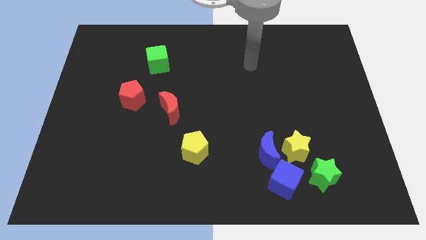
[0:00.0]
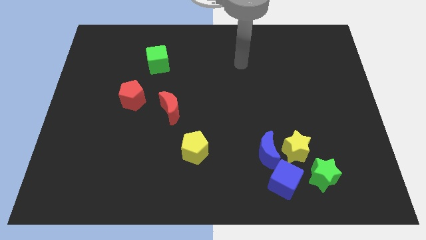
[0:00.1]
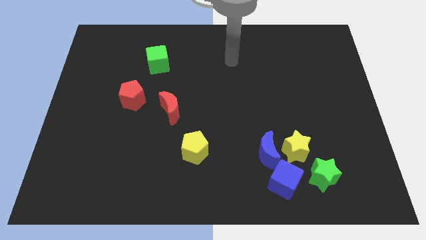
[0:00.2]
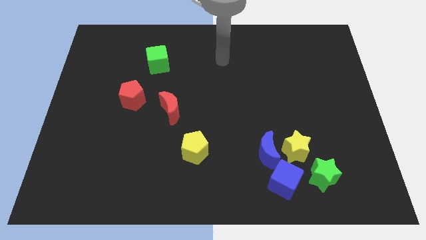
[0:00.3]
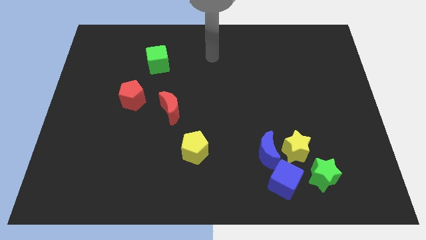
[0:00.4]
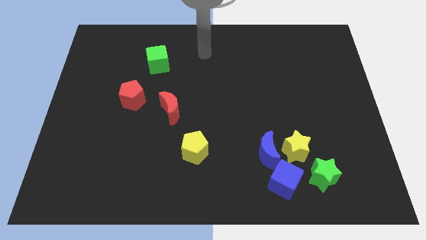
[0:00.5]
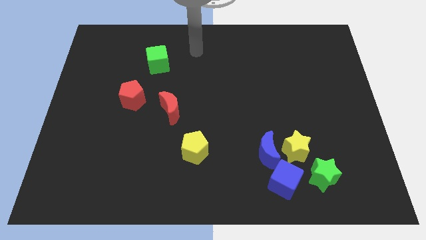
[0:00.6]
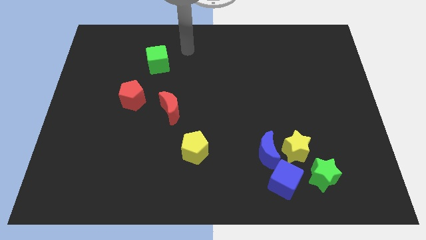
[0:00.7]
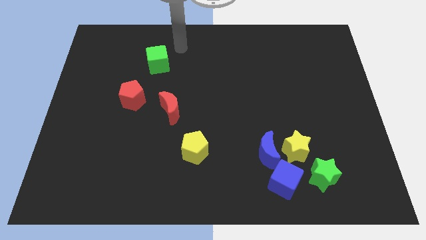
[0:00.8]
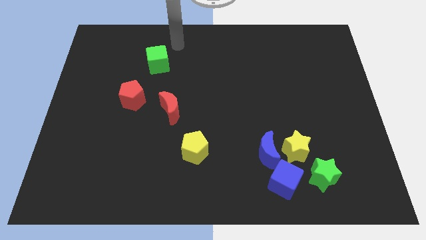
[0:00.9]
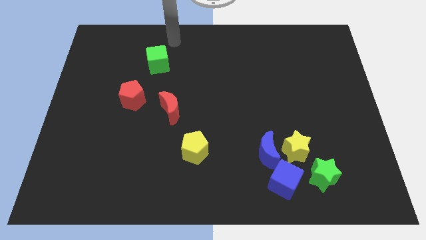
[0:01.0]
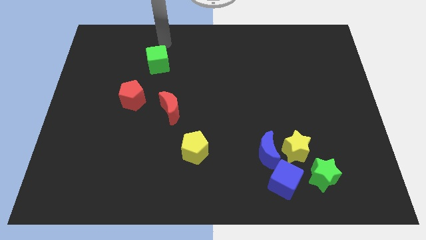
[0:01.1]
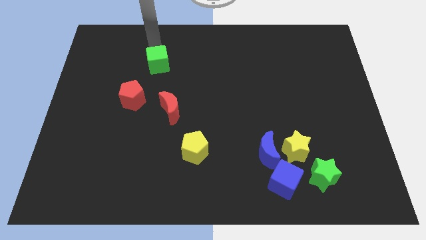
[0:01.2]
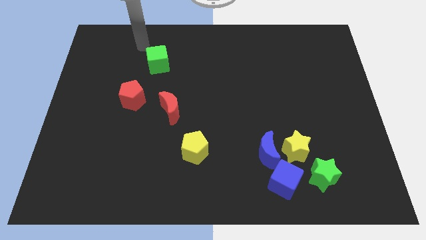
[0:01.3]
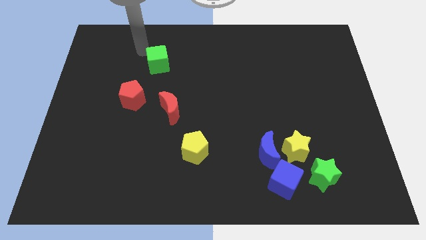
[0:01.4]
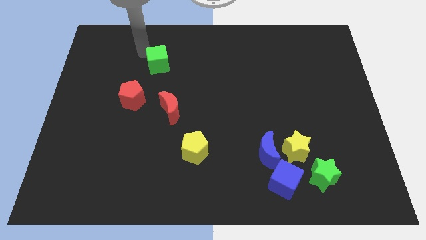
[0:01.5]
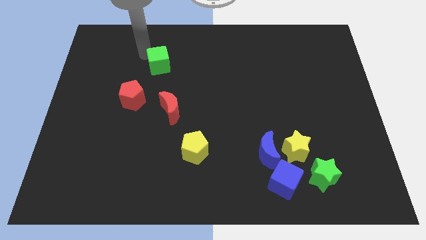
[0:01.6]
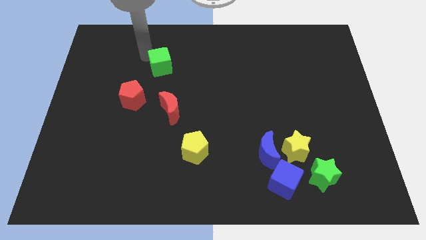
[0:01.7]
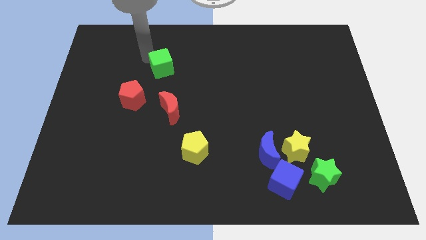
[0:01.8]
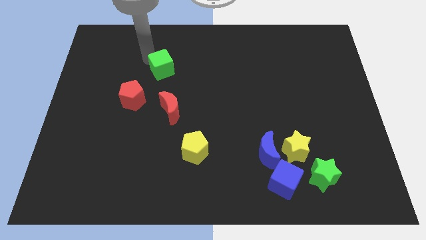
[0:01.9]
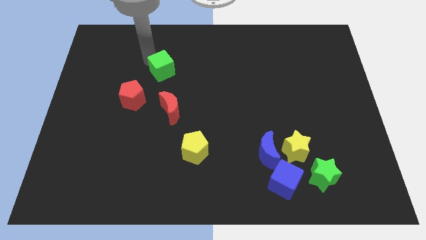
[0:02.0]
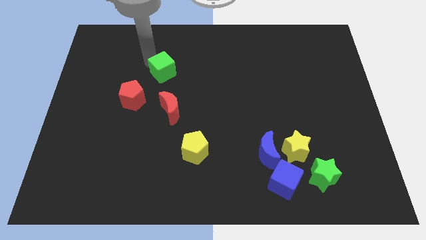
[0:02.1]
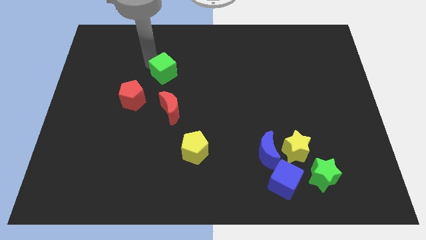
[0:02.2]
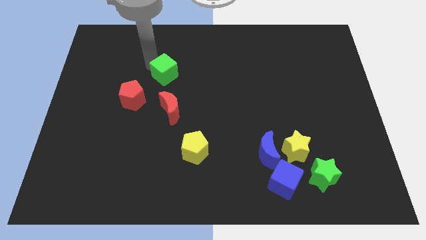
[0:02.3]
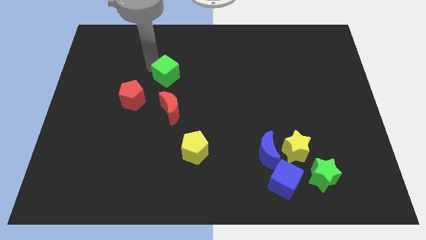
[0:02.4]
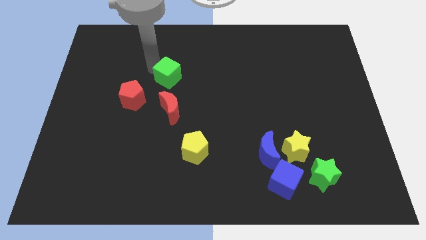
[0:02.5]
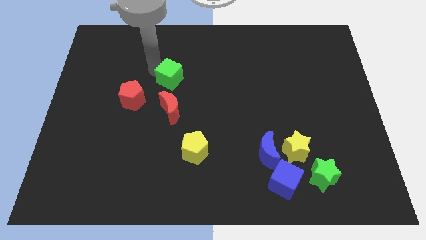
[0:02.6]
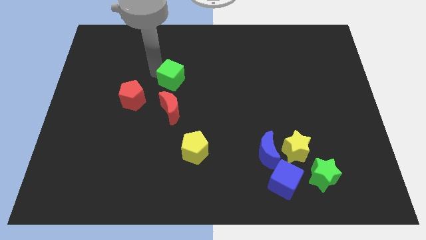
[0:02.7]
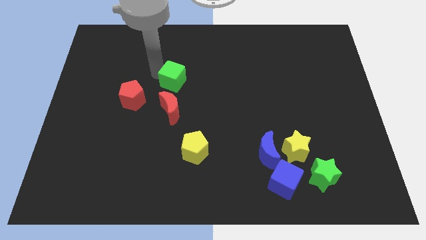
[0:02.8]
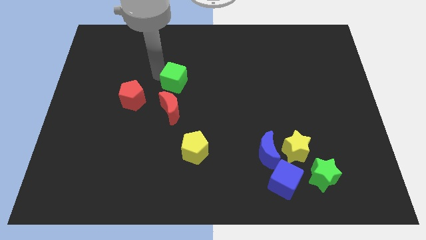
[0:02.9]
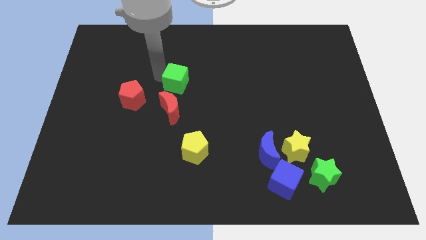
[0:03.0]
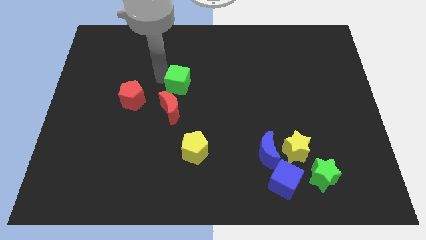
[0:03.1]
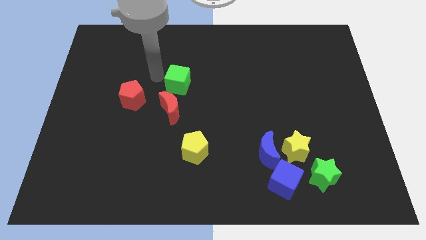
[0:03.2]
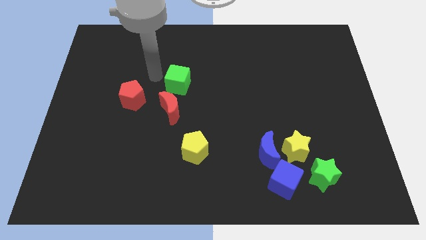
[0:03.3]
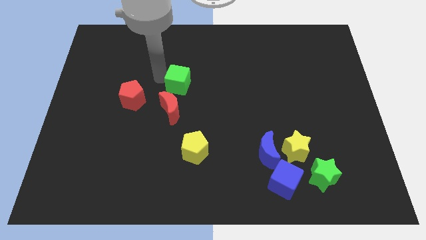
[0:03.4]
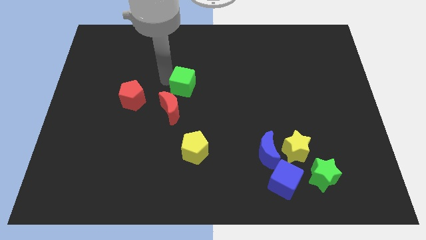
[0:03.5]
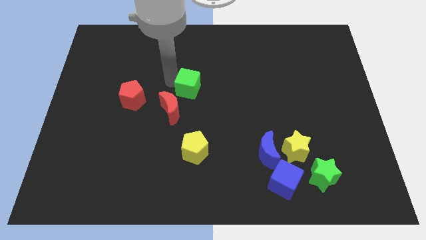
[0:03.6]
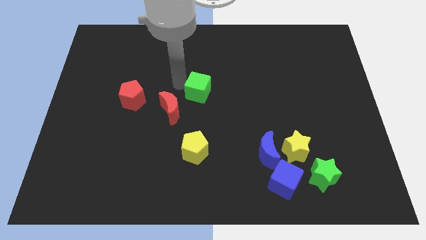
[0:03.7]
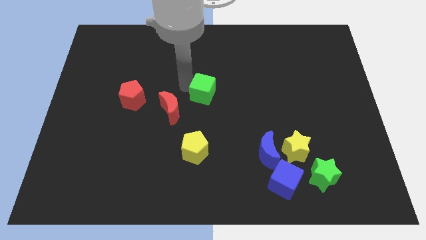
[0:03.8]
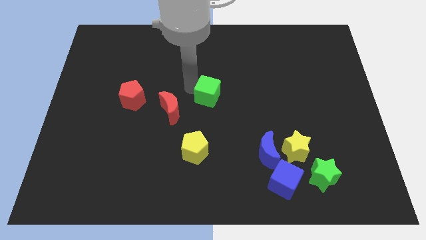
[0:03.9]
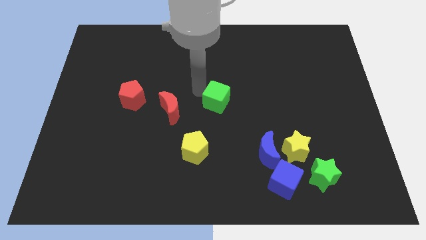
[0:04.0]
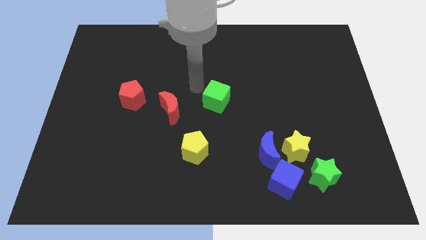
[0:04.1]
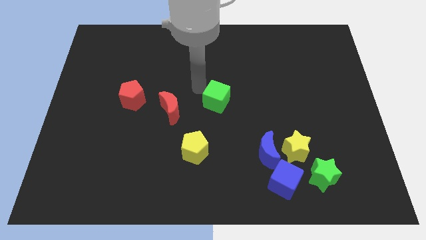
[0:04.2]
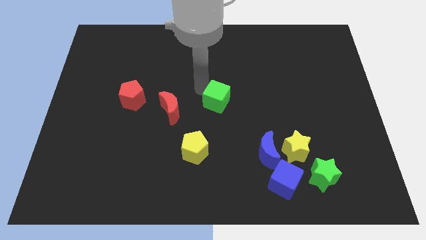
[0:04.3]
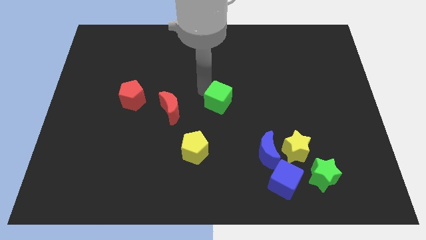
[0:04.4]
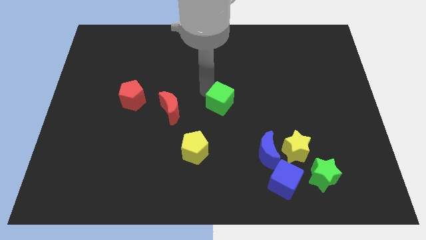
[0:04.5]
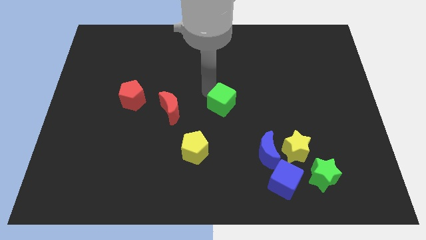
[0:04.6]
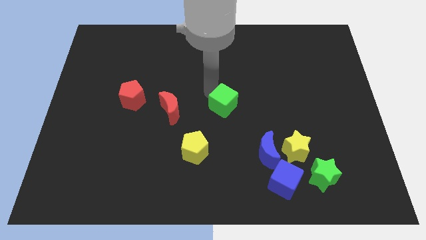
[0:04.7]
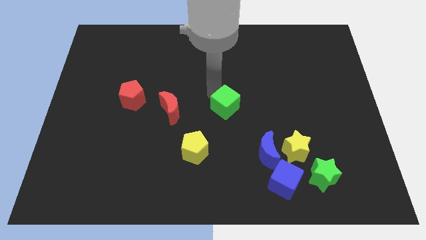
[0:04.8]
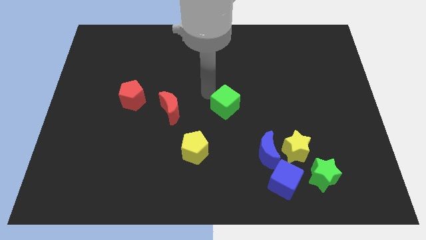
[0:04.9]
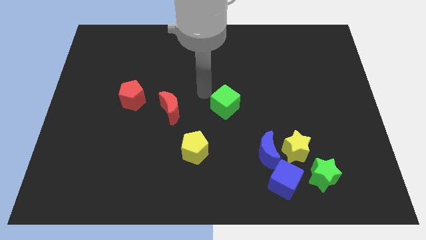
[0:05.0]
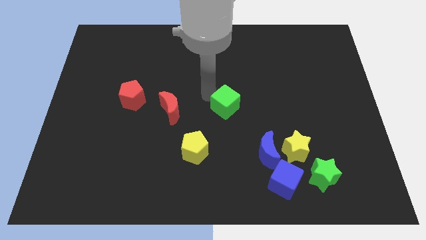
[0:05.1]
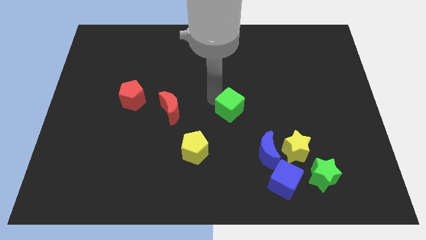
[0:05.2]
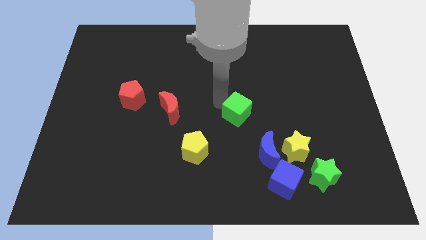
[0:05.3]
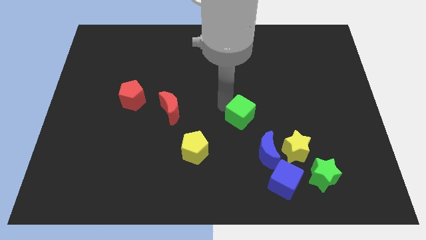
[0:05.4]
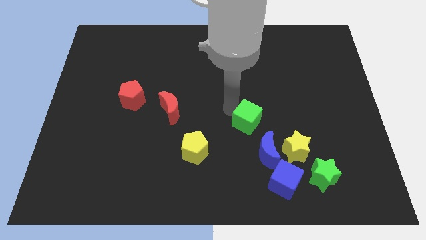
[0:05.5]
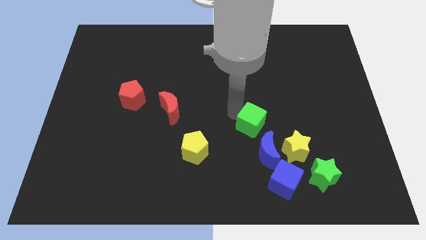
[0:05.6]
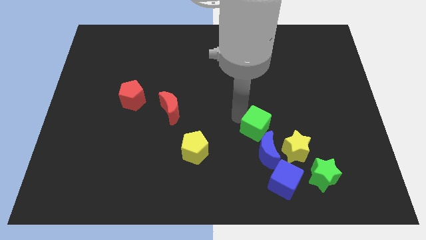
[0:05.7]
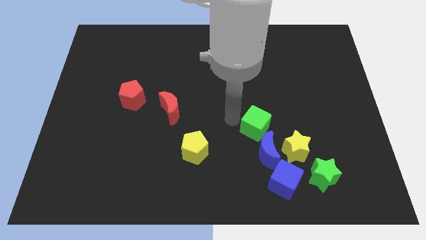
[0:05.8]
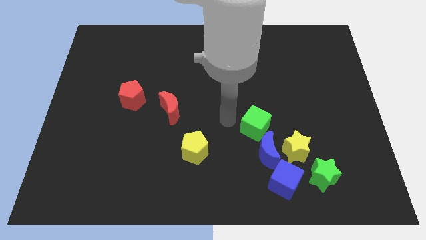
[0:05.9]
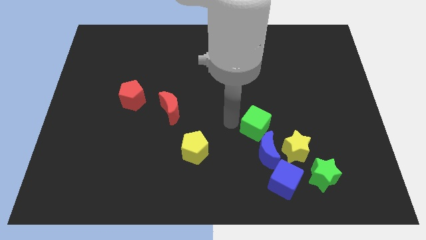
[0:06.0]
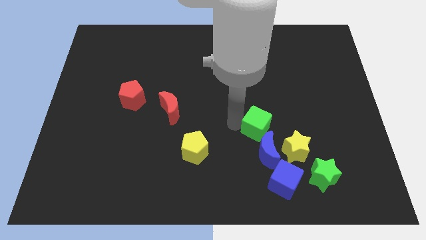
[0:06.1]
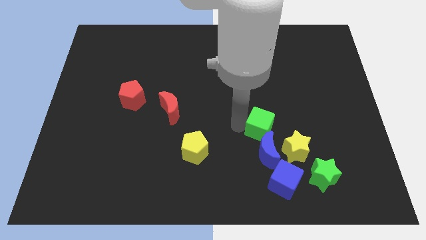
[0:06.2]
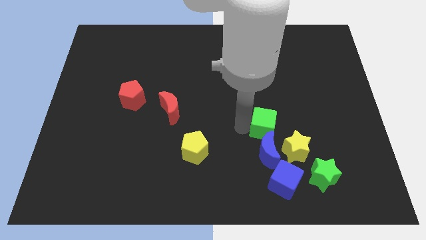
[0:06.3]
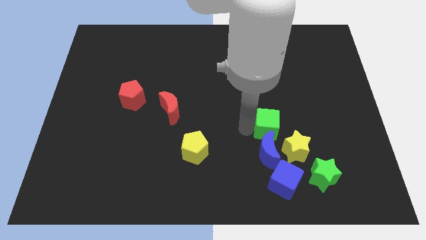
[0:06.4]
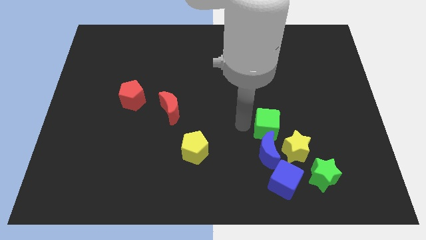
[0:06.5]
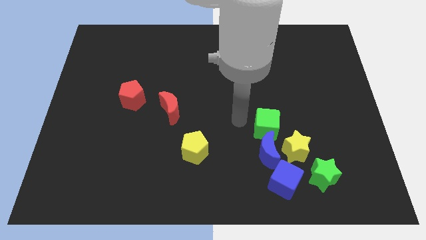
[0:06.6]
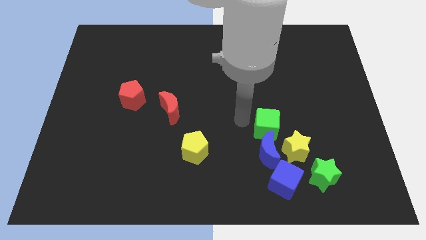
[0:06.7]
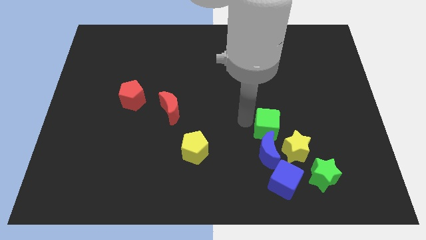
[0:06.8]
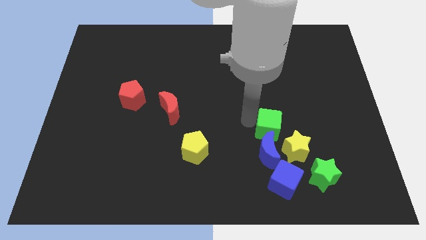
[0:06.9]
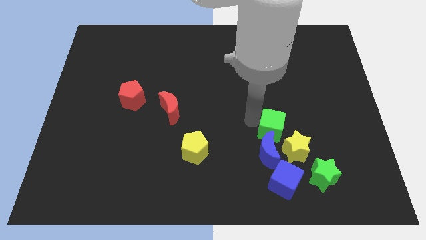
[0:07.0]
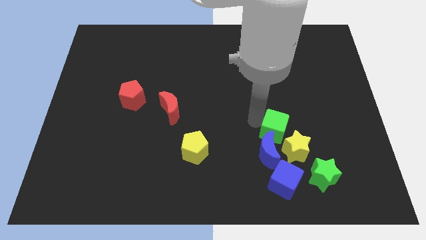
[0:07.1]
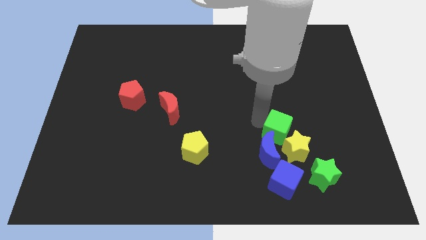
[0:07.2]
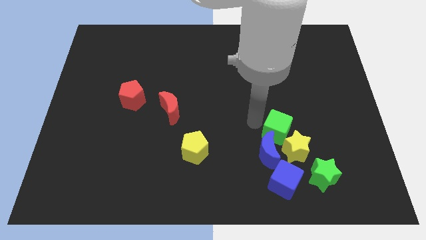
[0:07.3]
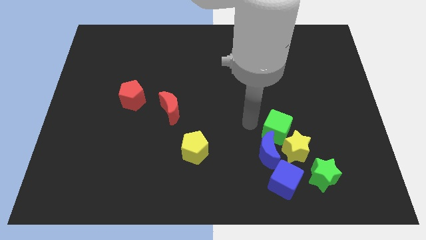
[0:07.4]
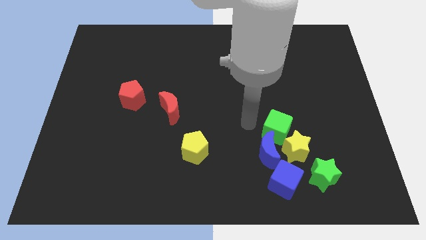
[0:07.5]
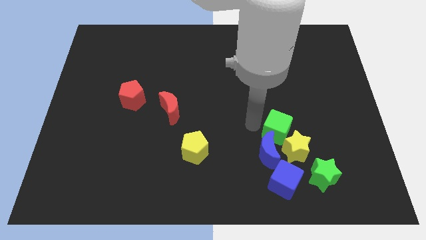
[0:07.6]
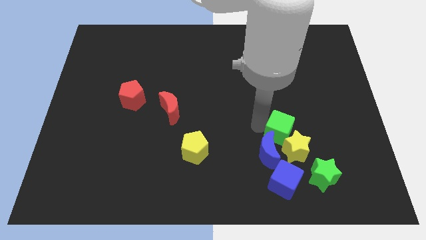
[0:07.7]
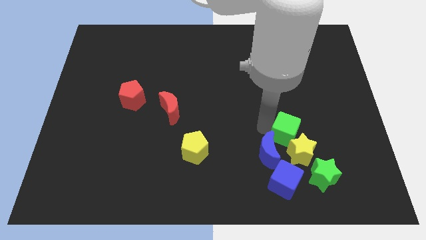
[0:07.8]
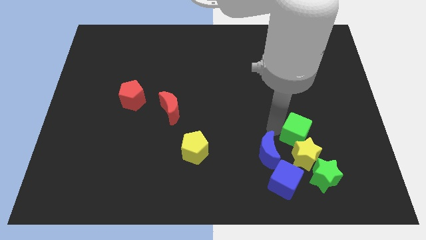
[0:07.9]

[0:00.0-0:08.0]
move the green cube right of the blue moon
